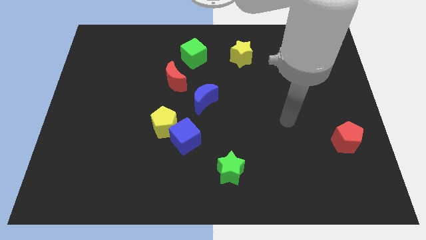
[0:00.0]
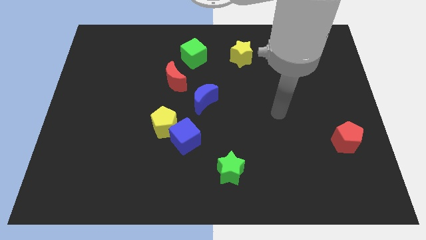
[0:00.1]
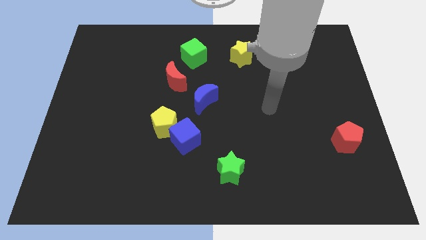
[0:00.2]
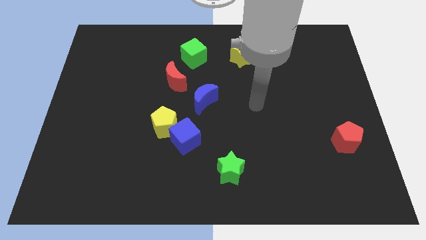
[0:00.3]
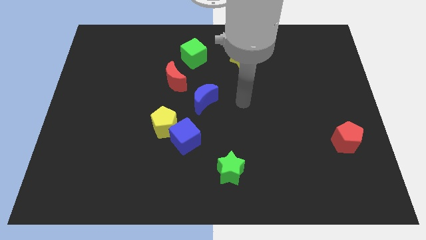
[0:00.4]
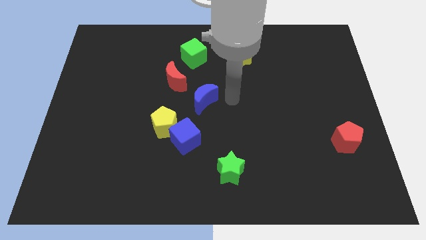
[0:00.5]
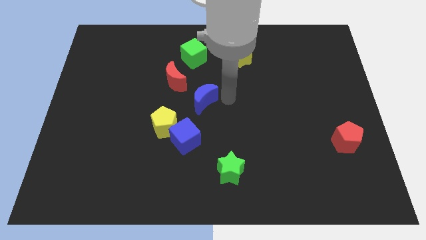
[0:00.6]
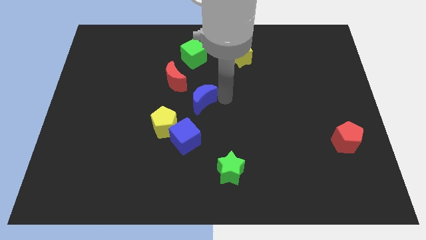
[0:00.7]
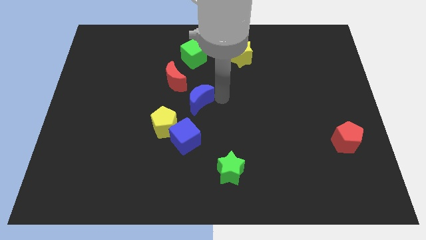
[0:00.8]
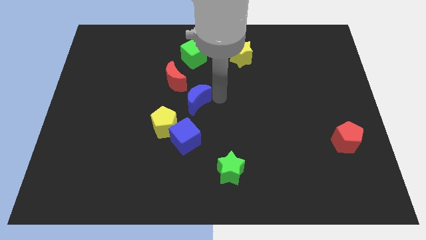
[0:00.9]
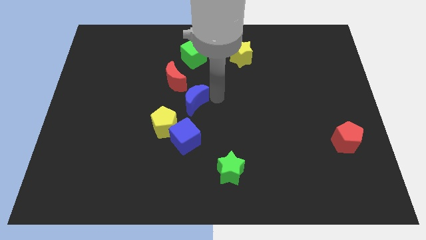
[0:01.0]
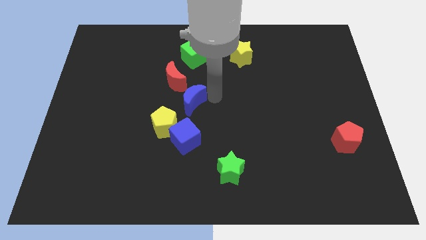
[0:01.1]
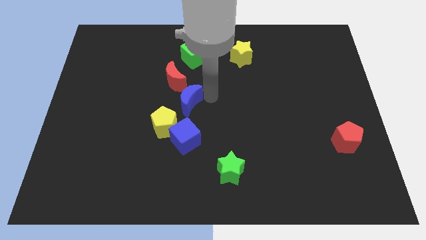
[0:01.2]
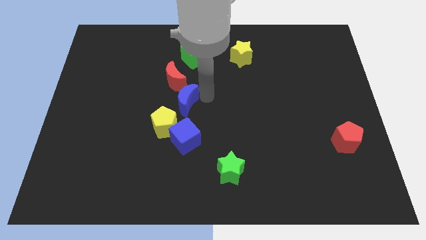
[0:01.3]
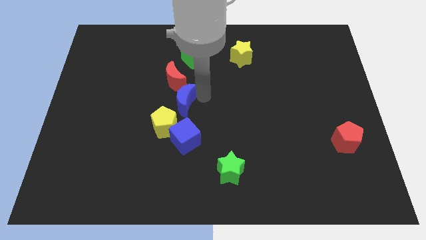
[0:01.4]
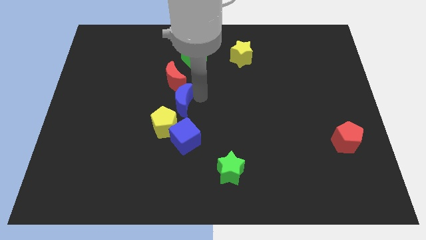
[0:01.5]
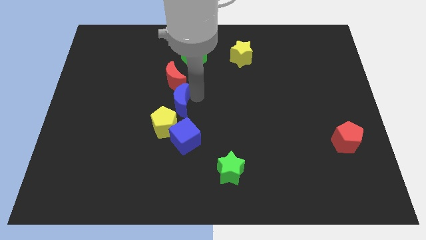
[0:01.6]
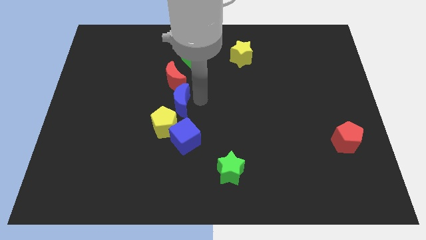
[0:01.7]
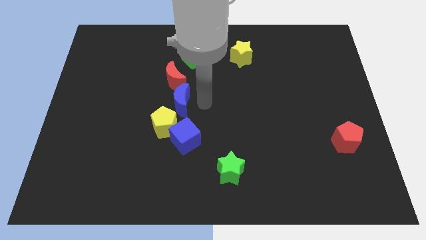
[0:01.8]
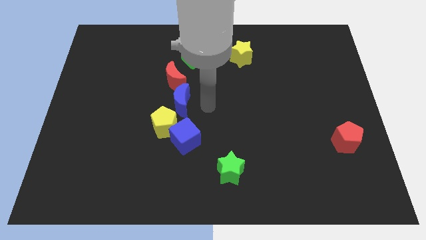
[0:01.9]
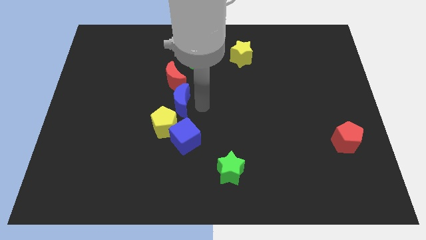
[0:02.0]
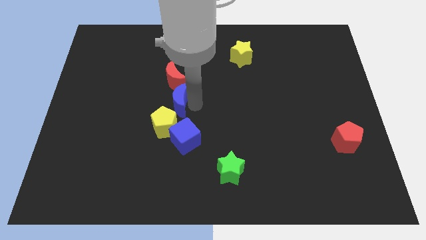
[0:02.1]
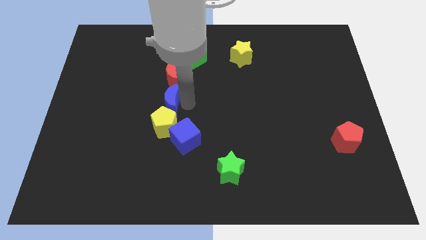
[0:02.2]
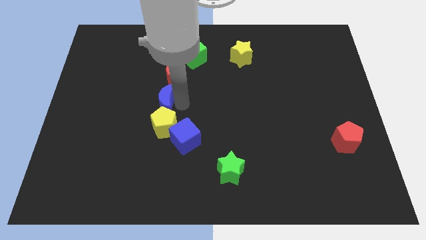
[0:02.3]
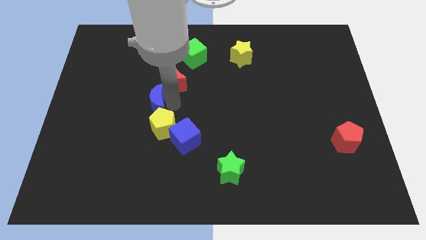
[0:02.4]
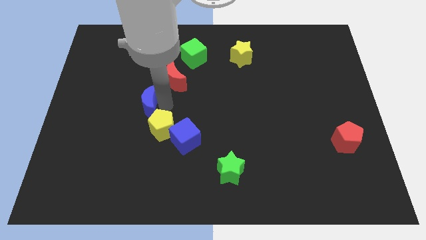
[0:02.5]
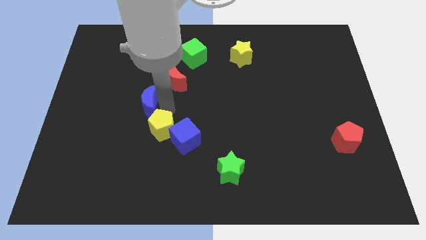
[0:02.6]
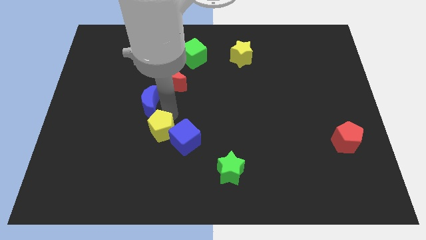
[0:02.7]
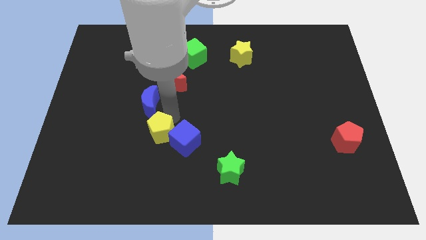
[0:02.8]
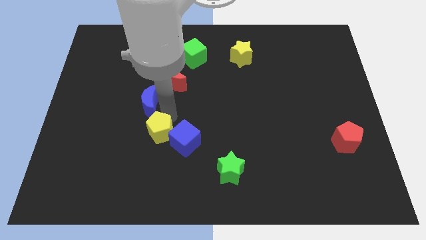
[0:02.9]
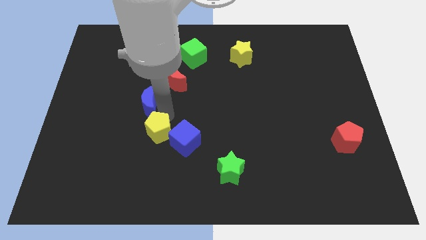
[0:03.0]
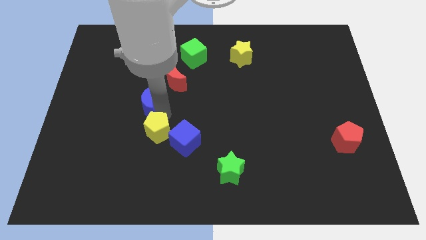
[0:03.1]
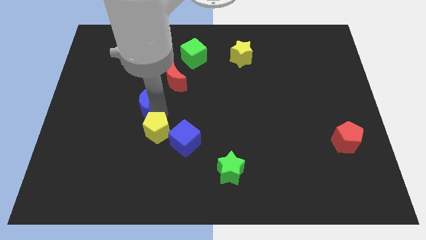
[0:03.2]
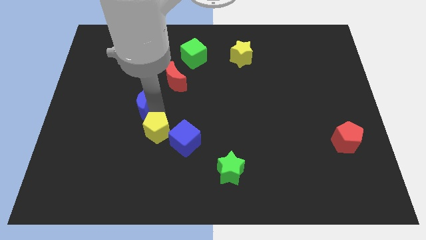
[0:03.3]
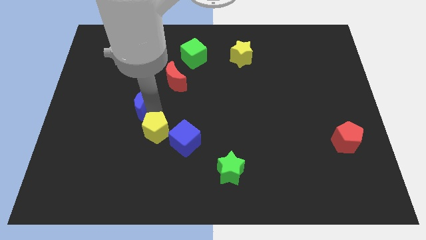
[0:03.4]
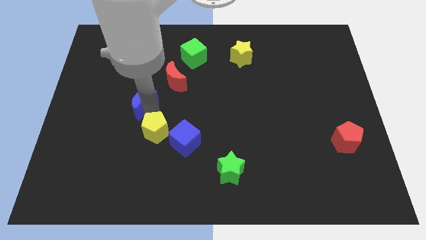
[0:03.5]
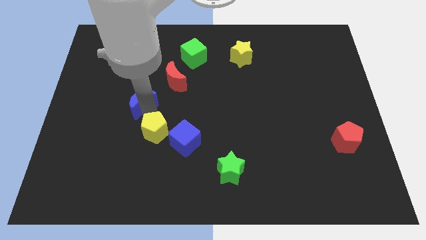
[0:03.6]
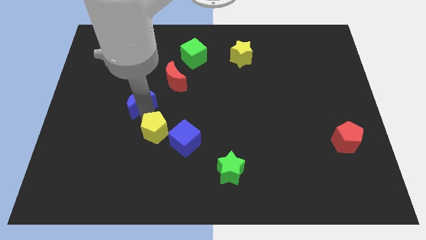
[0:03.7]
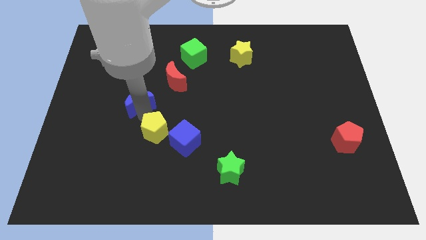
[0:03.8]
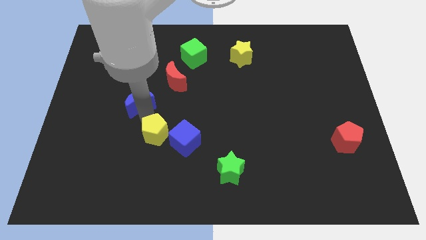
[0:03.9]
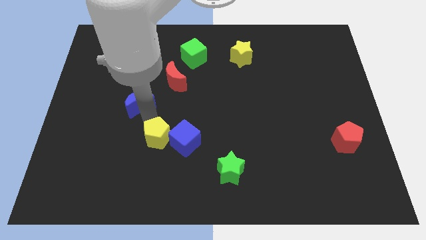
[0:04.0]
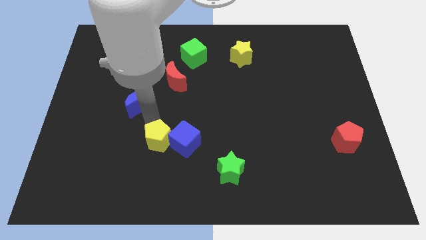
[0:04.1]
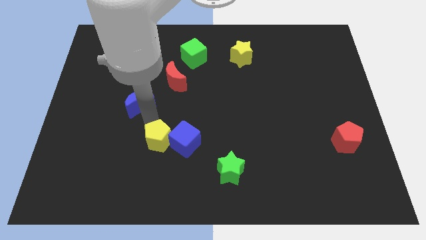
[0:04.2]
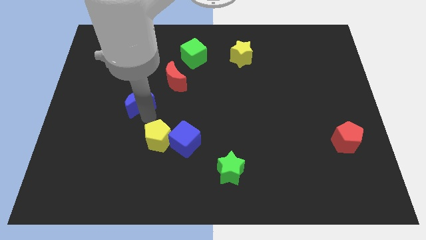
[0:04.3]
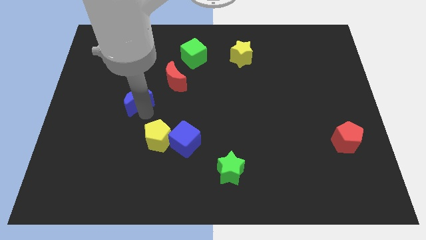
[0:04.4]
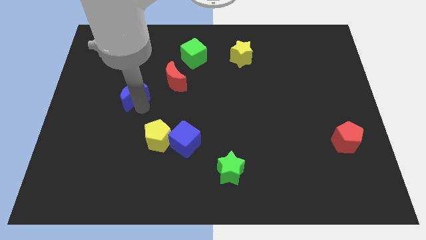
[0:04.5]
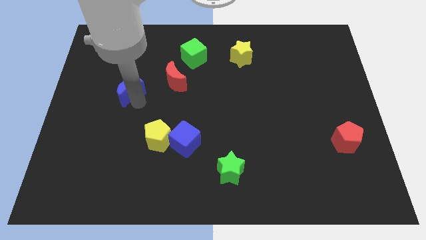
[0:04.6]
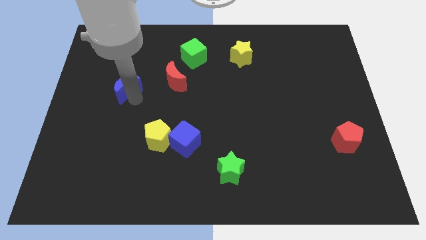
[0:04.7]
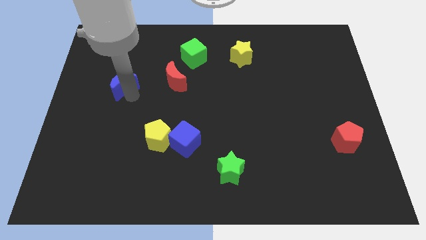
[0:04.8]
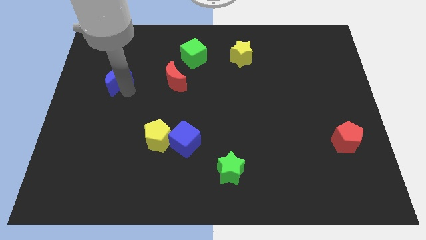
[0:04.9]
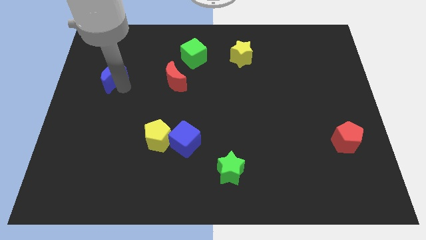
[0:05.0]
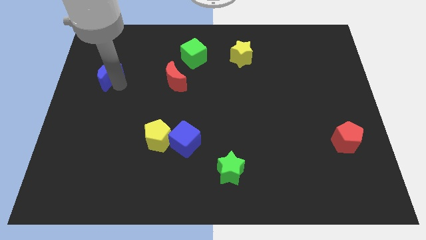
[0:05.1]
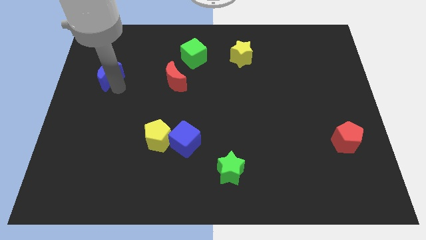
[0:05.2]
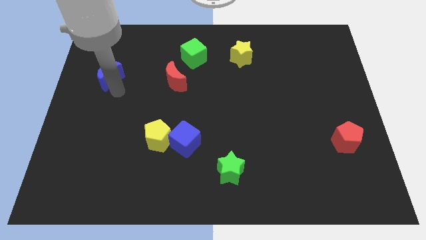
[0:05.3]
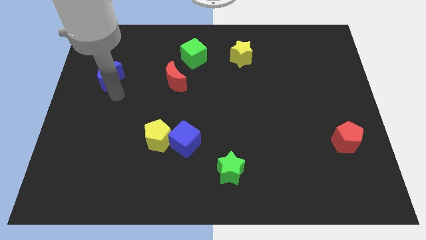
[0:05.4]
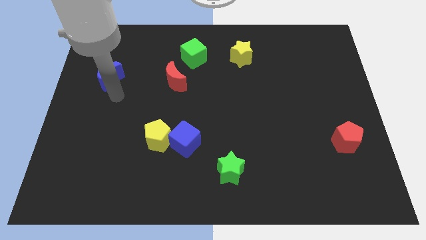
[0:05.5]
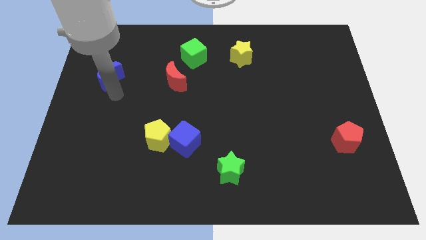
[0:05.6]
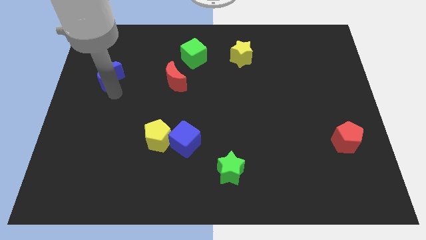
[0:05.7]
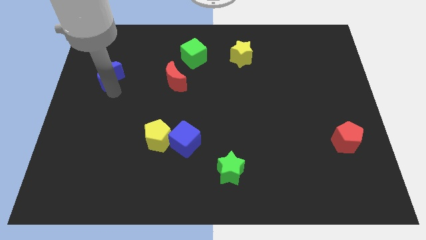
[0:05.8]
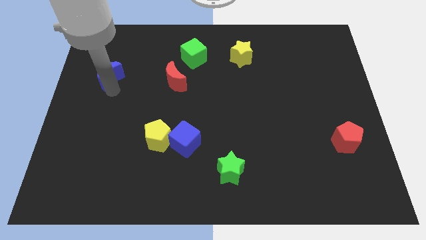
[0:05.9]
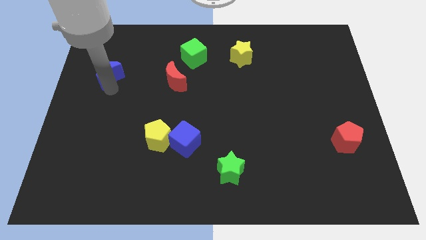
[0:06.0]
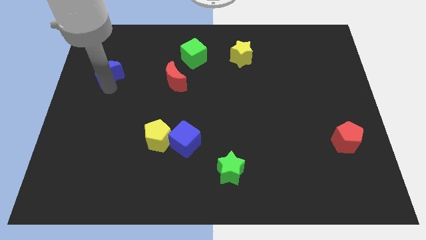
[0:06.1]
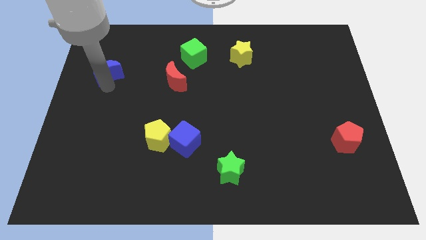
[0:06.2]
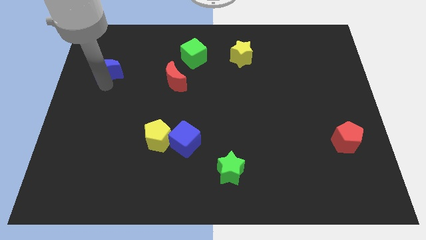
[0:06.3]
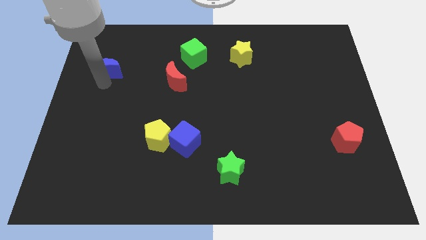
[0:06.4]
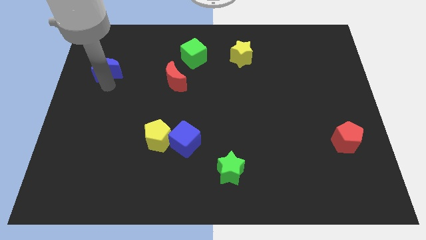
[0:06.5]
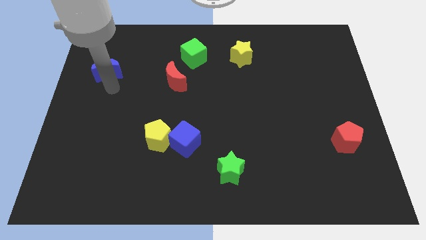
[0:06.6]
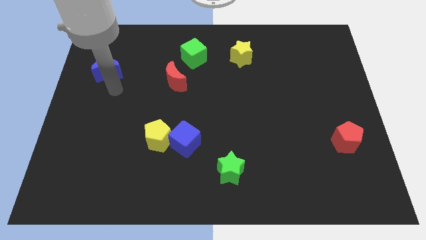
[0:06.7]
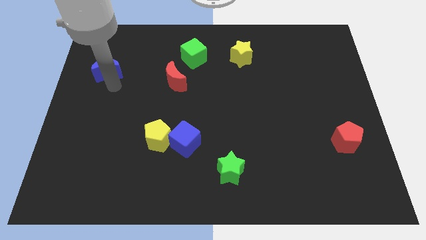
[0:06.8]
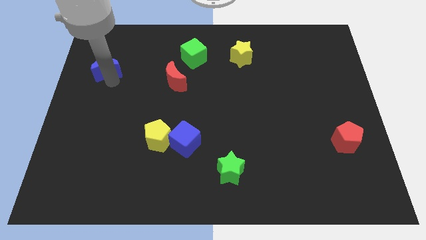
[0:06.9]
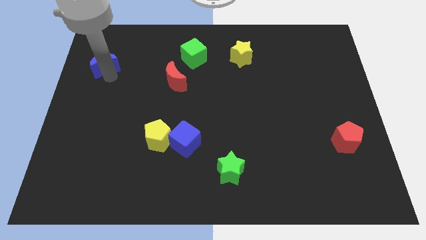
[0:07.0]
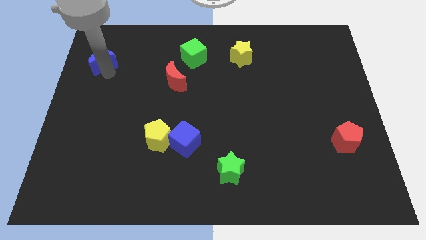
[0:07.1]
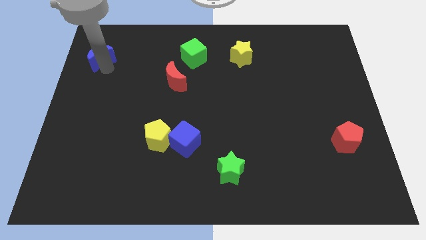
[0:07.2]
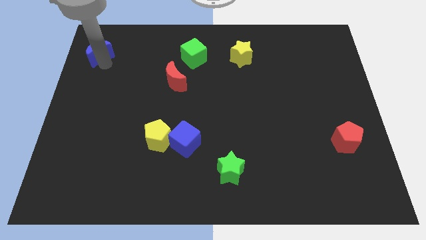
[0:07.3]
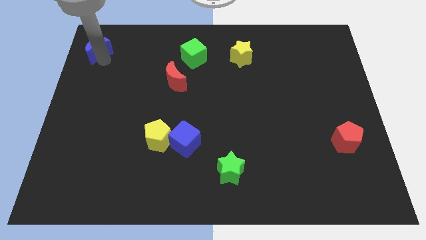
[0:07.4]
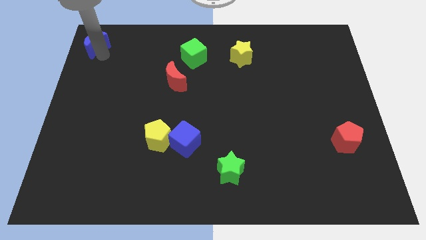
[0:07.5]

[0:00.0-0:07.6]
slide the blue moon to the top left corner
